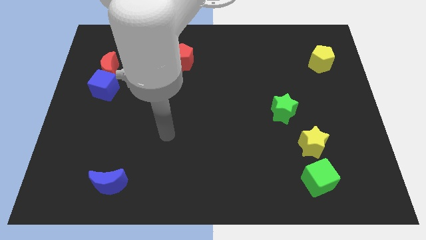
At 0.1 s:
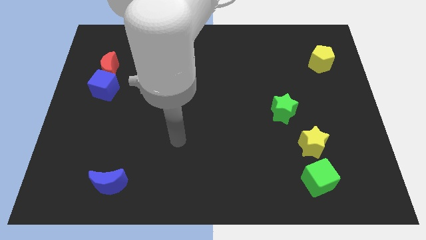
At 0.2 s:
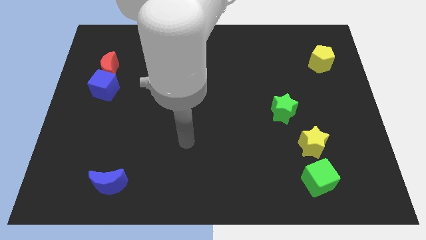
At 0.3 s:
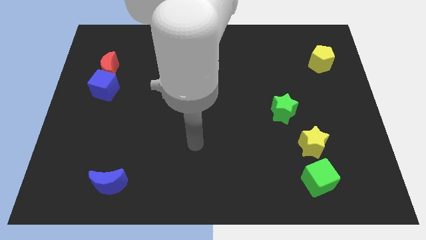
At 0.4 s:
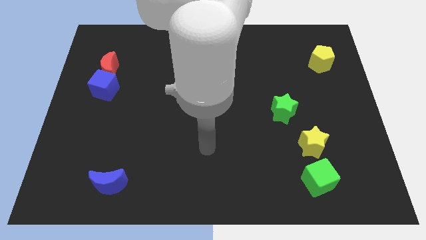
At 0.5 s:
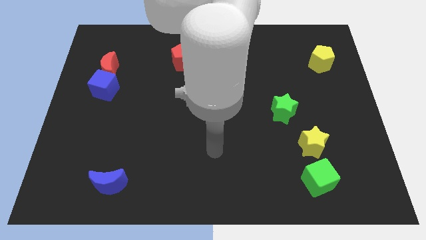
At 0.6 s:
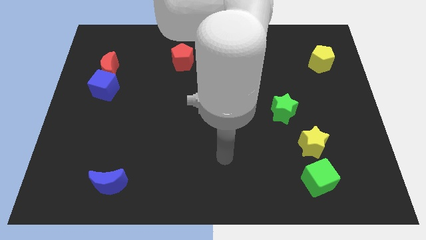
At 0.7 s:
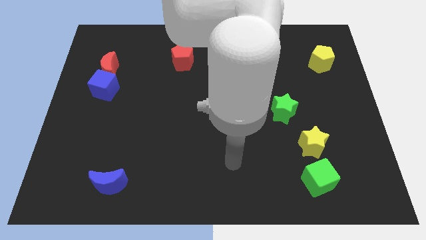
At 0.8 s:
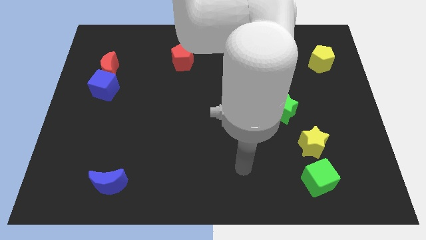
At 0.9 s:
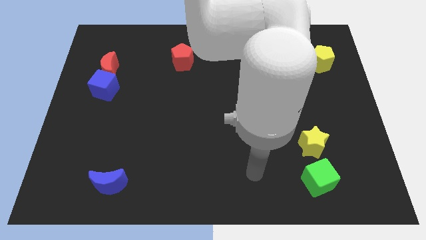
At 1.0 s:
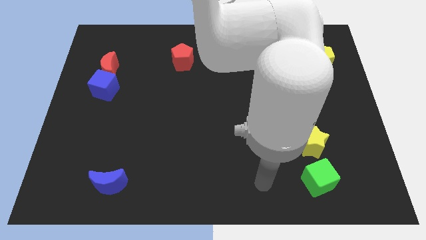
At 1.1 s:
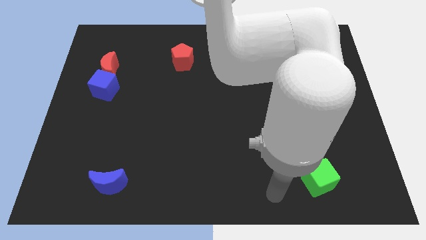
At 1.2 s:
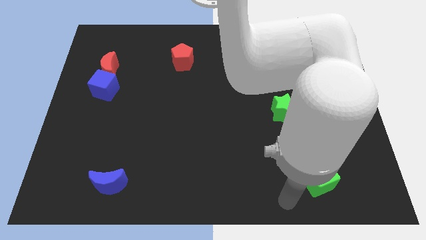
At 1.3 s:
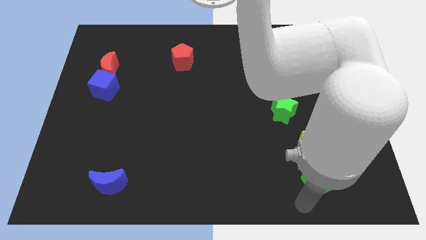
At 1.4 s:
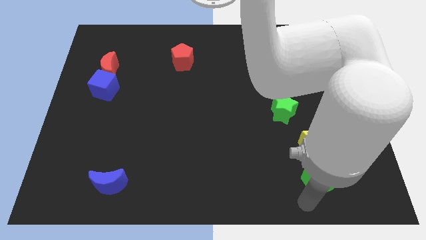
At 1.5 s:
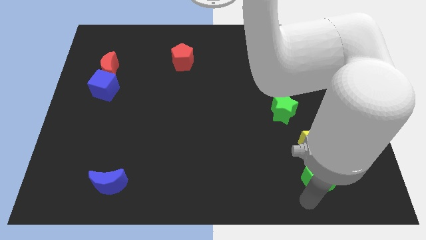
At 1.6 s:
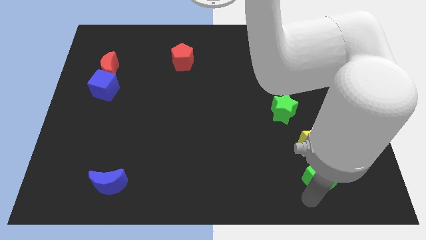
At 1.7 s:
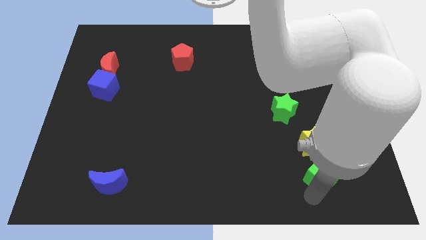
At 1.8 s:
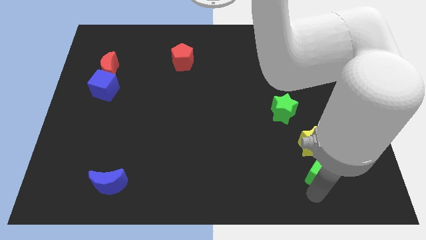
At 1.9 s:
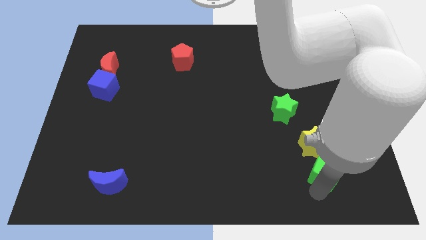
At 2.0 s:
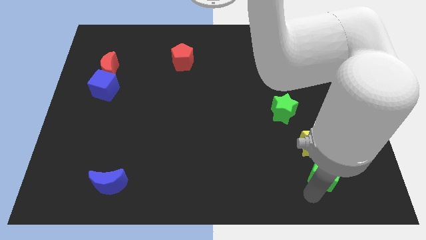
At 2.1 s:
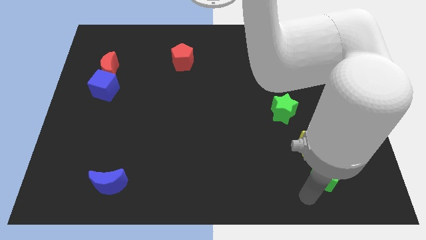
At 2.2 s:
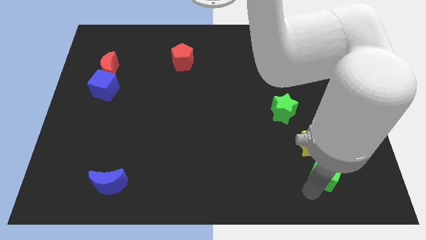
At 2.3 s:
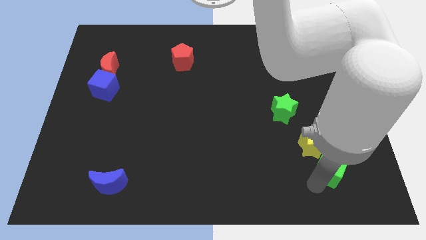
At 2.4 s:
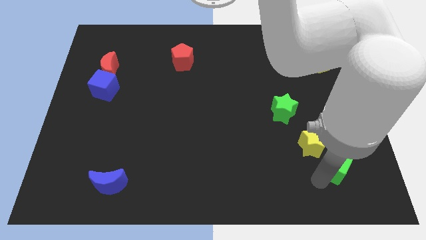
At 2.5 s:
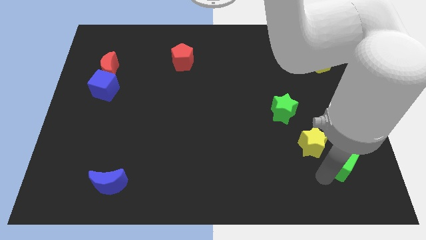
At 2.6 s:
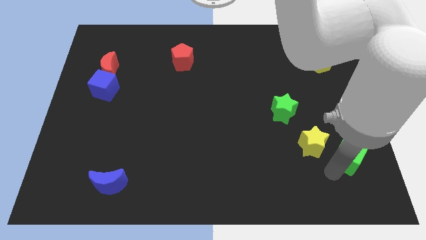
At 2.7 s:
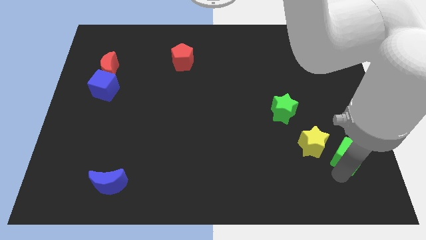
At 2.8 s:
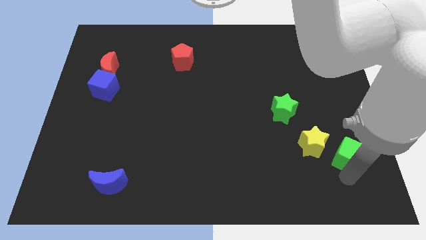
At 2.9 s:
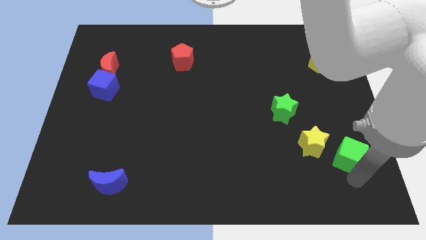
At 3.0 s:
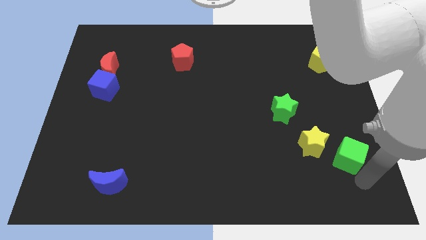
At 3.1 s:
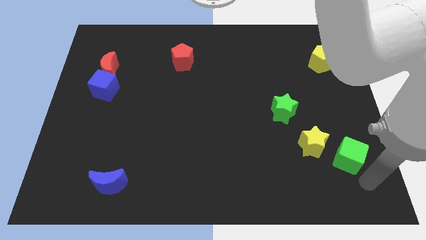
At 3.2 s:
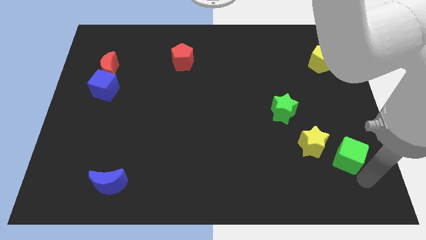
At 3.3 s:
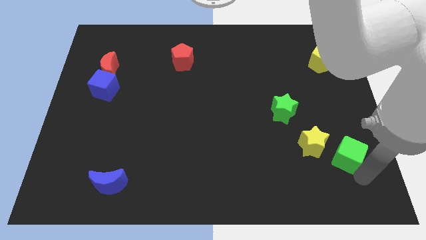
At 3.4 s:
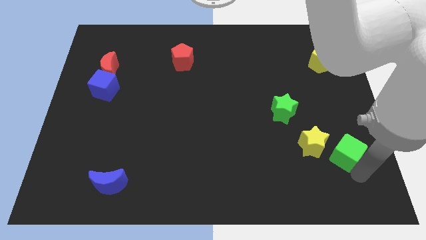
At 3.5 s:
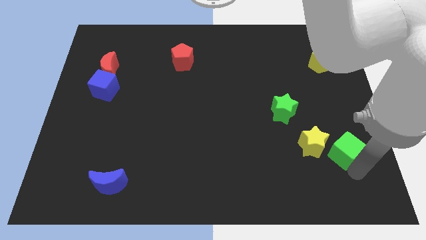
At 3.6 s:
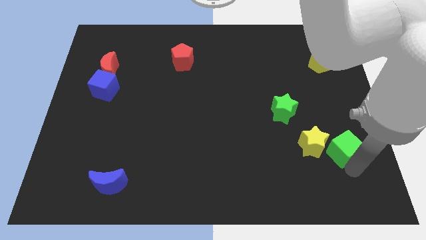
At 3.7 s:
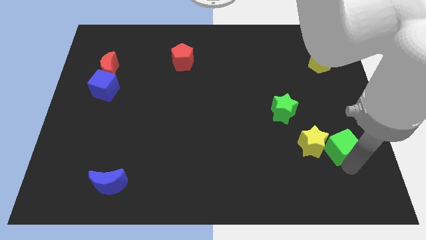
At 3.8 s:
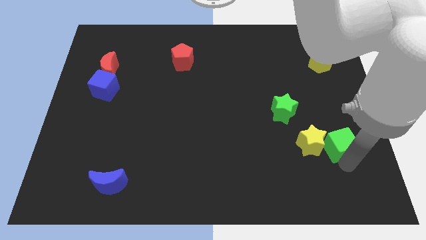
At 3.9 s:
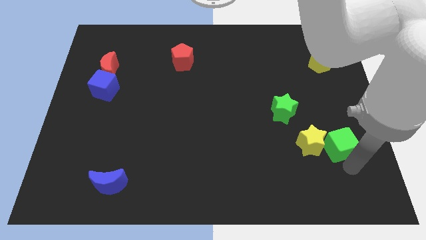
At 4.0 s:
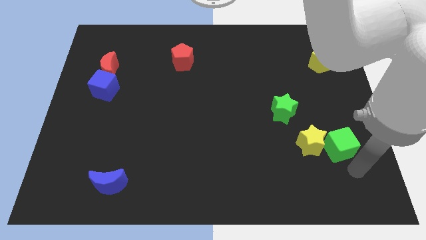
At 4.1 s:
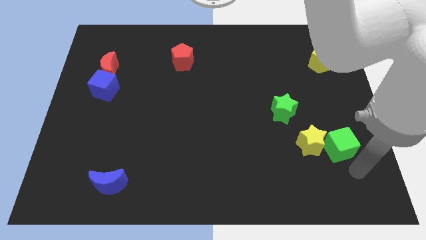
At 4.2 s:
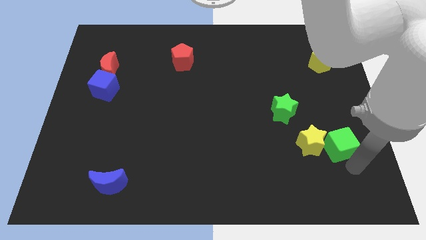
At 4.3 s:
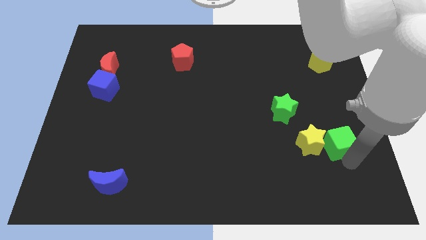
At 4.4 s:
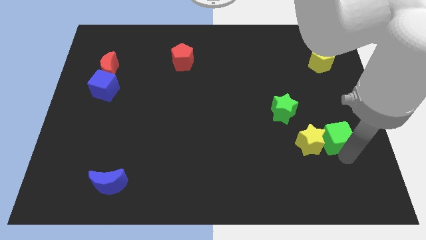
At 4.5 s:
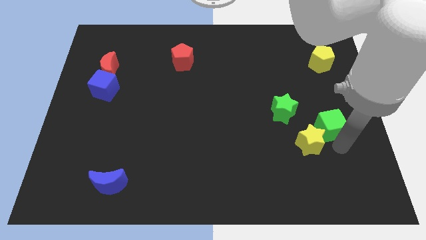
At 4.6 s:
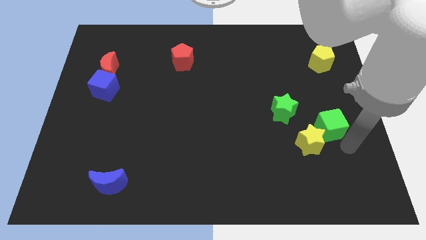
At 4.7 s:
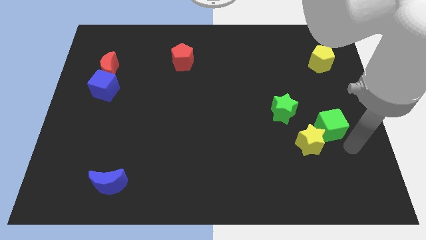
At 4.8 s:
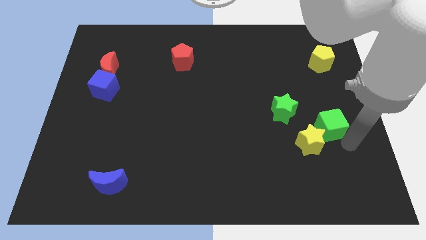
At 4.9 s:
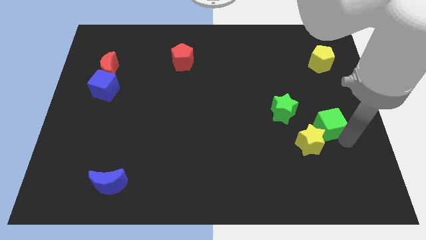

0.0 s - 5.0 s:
slide the green cube to the top of the yellow star

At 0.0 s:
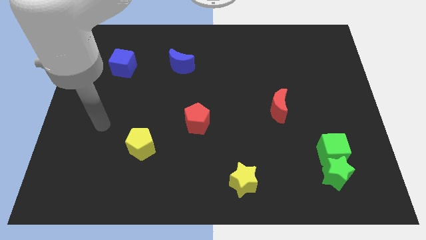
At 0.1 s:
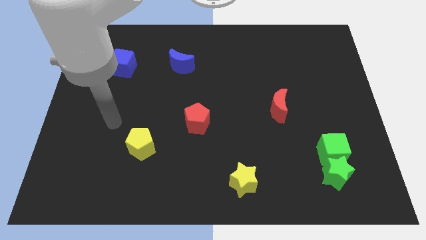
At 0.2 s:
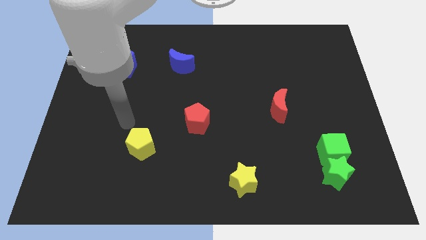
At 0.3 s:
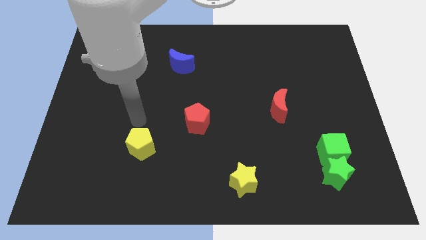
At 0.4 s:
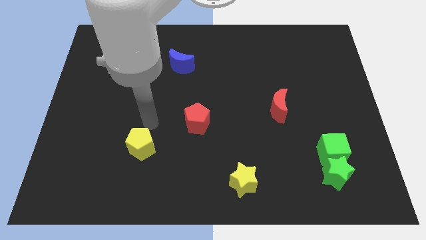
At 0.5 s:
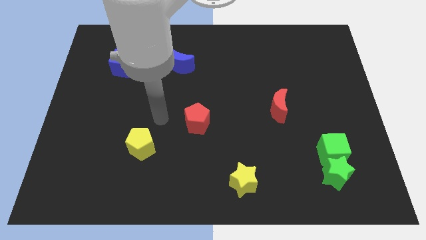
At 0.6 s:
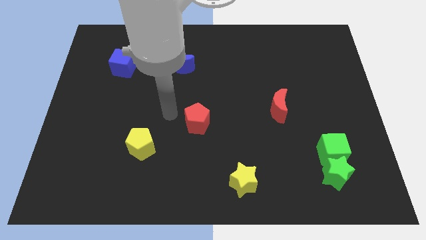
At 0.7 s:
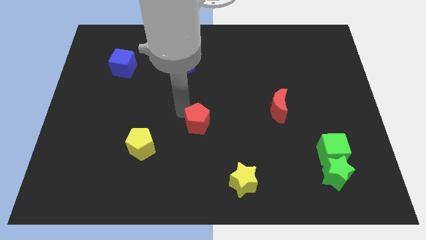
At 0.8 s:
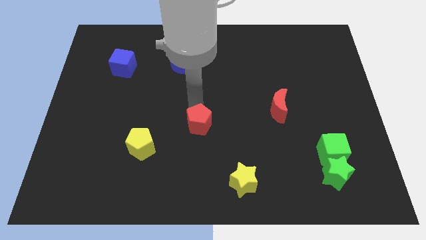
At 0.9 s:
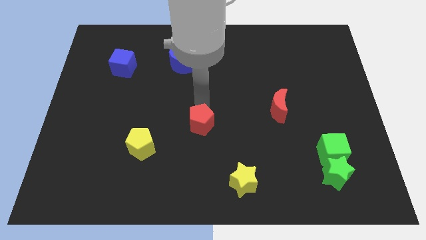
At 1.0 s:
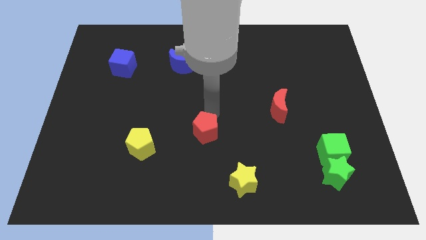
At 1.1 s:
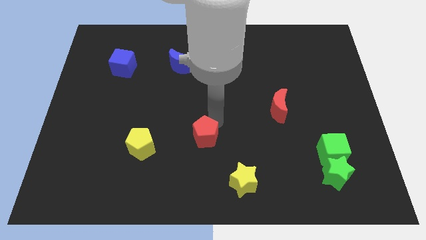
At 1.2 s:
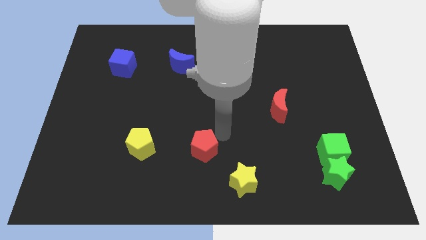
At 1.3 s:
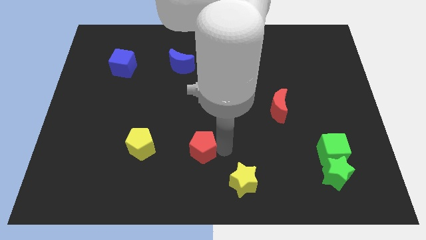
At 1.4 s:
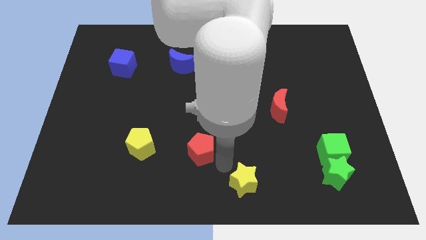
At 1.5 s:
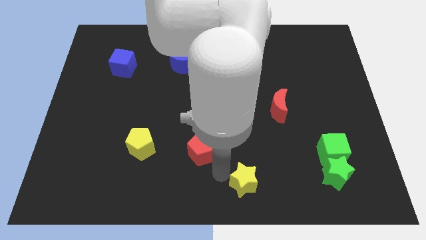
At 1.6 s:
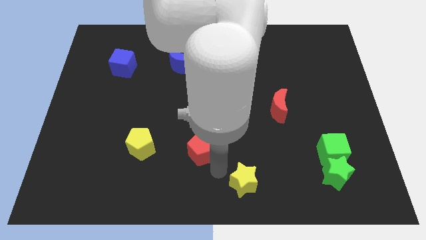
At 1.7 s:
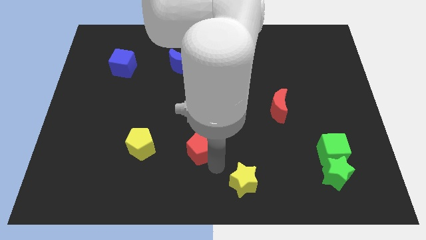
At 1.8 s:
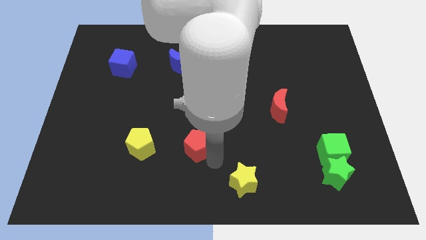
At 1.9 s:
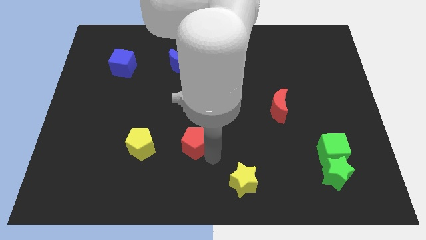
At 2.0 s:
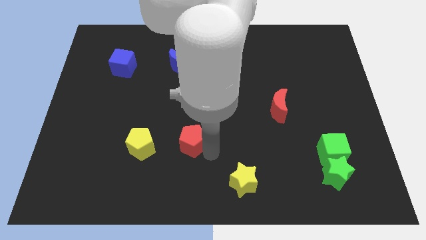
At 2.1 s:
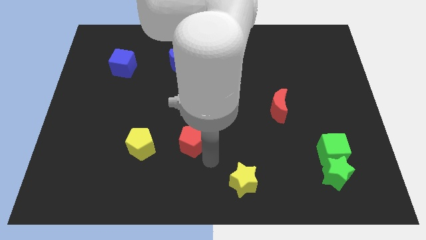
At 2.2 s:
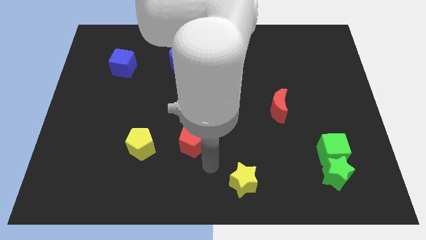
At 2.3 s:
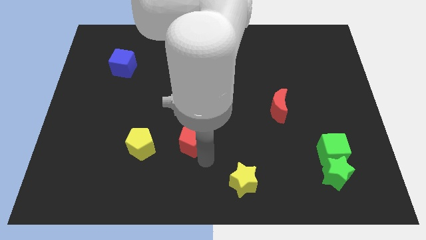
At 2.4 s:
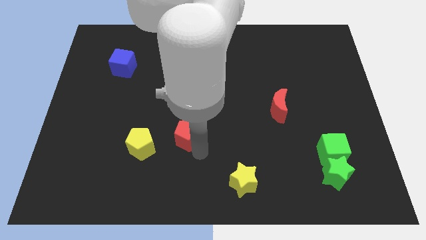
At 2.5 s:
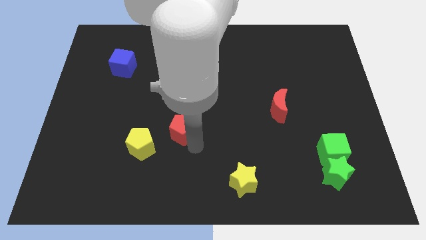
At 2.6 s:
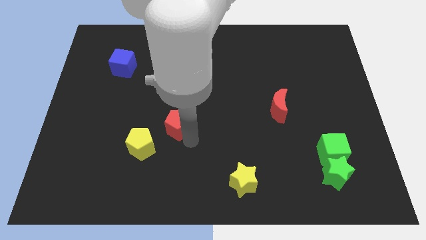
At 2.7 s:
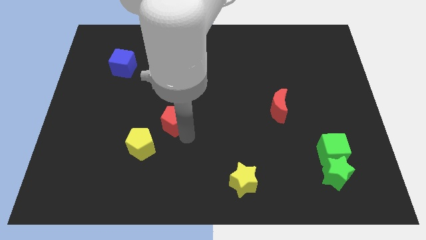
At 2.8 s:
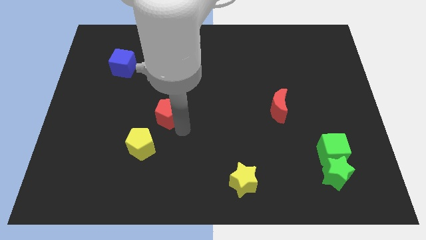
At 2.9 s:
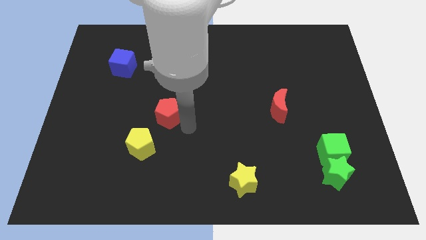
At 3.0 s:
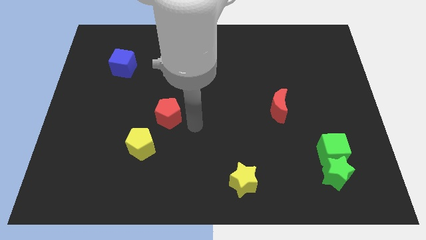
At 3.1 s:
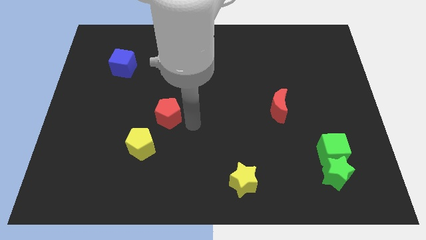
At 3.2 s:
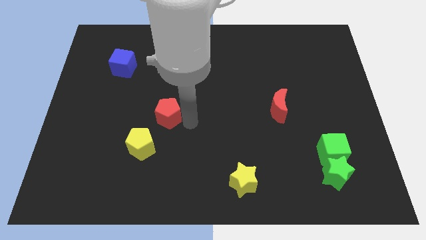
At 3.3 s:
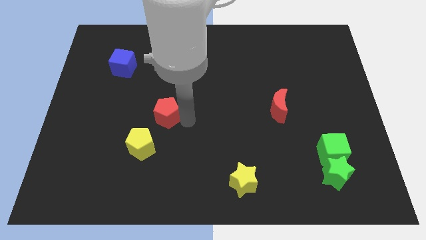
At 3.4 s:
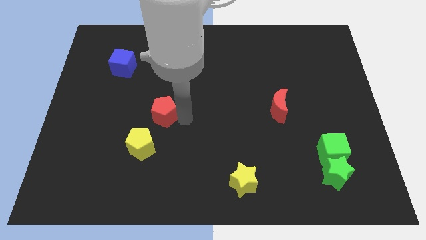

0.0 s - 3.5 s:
push the red pentagon to the top of the yellow pentagon
